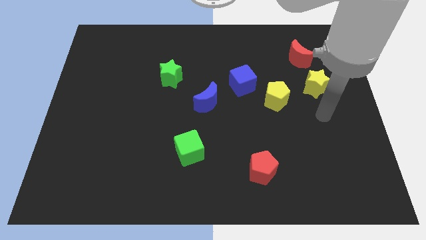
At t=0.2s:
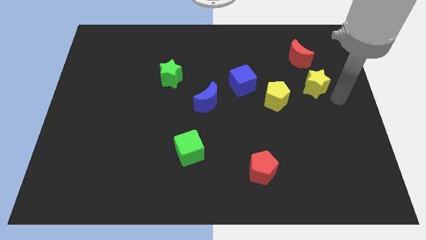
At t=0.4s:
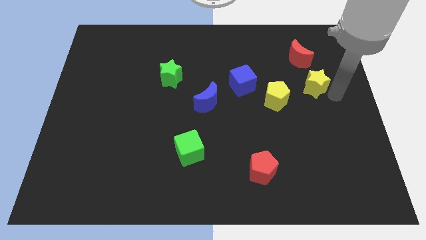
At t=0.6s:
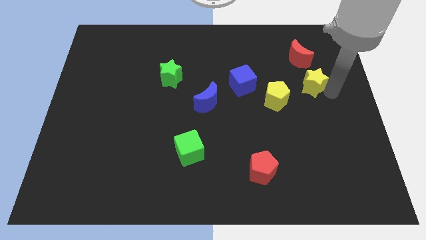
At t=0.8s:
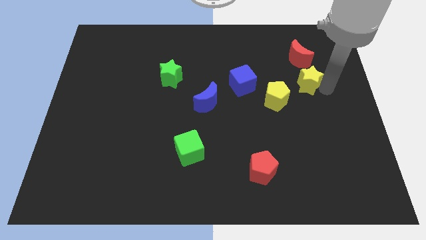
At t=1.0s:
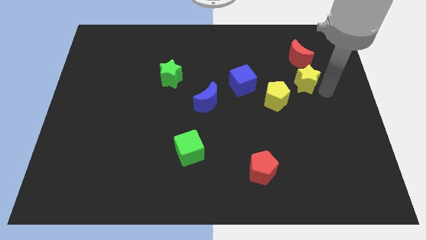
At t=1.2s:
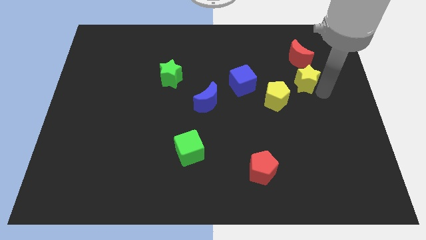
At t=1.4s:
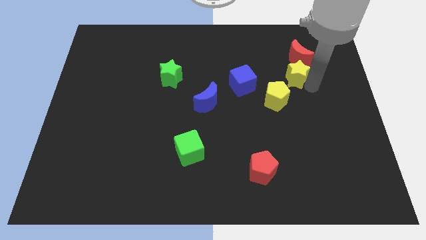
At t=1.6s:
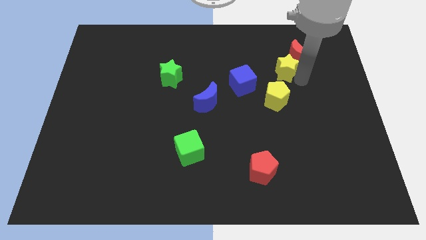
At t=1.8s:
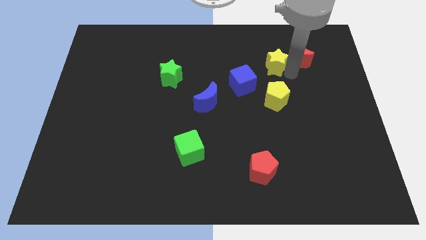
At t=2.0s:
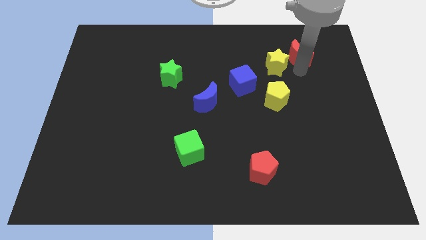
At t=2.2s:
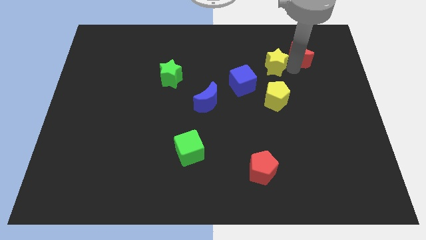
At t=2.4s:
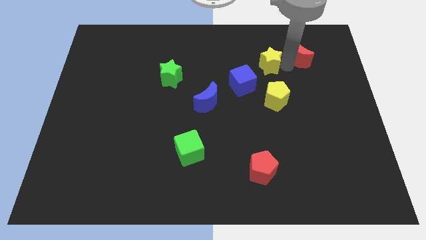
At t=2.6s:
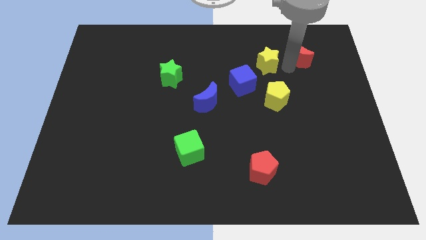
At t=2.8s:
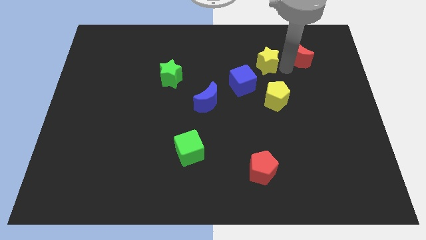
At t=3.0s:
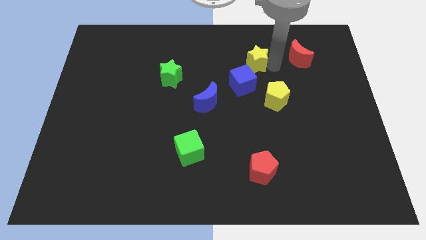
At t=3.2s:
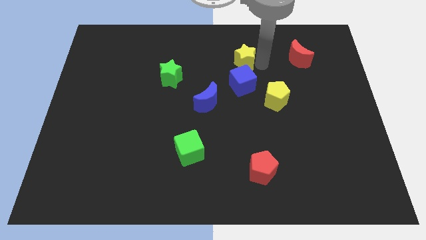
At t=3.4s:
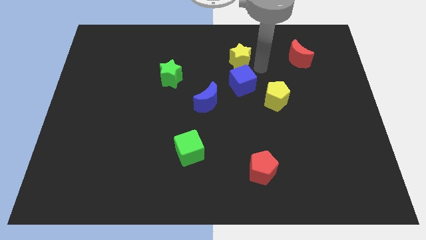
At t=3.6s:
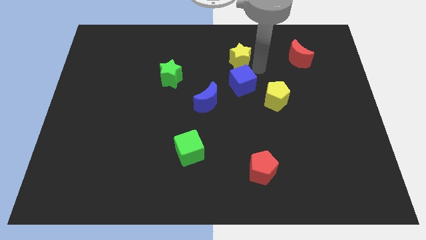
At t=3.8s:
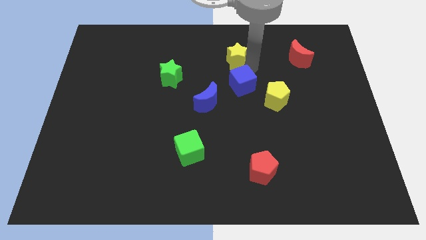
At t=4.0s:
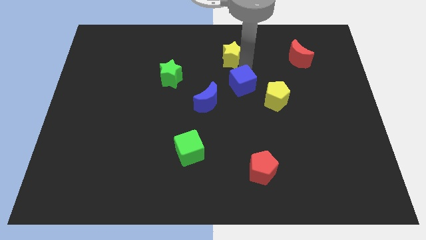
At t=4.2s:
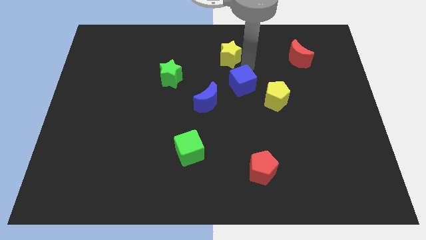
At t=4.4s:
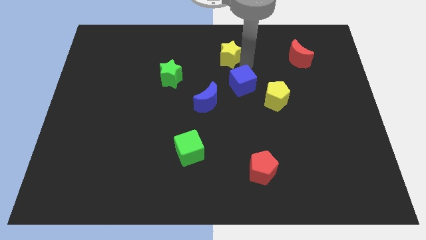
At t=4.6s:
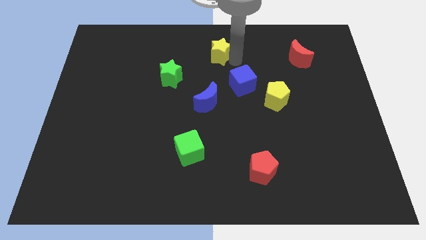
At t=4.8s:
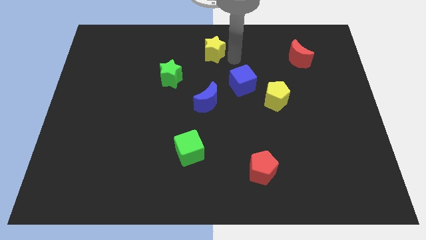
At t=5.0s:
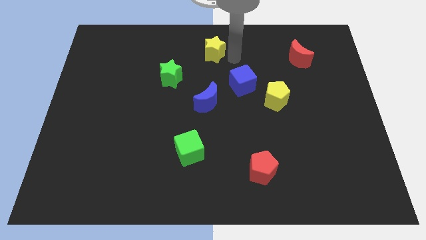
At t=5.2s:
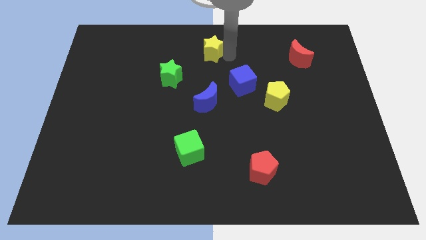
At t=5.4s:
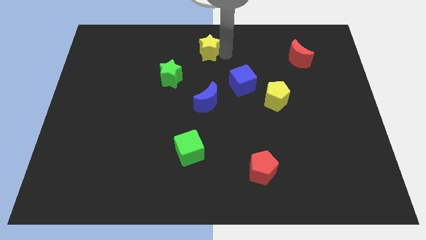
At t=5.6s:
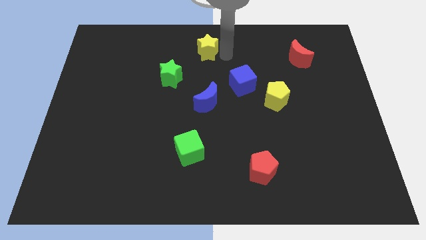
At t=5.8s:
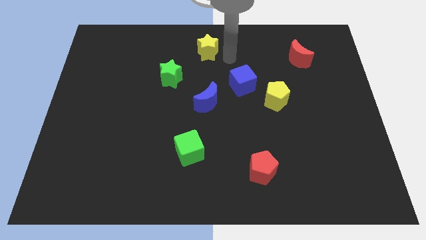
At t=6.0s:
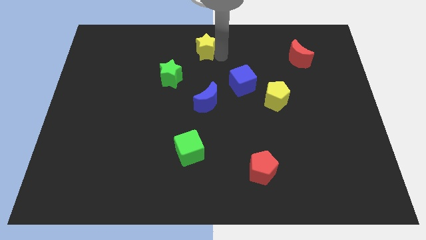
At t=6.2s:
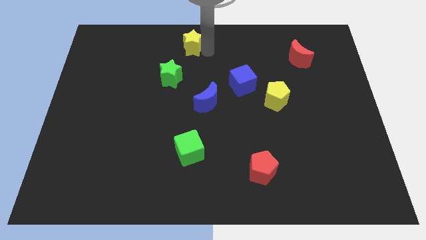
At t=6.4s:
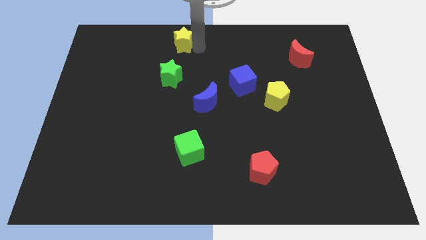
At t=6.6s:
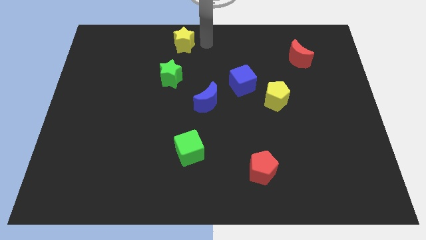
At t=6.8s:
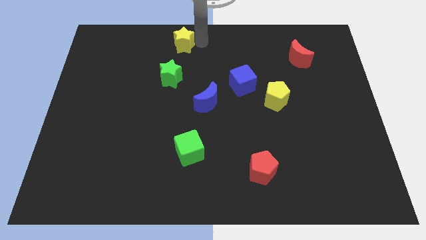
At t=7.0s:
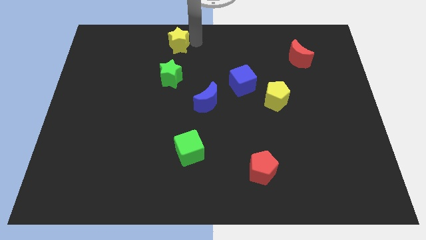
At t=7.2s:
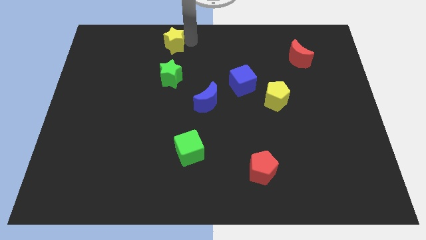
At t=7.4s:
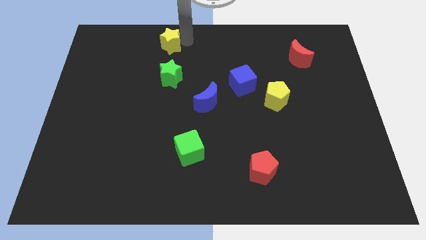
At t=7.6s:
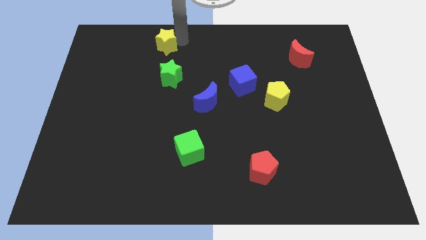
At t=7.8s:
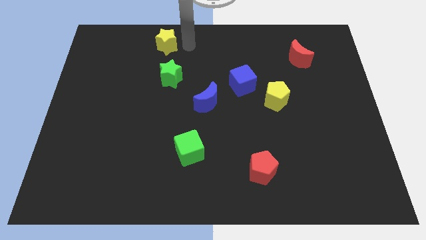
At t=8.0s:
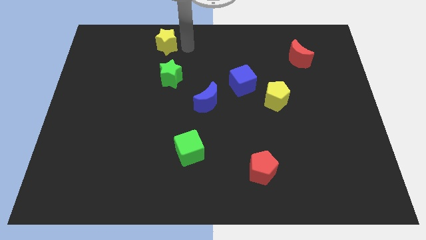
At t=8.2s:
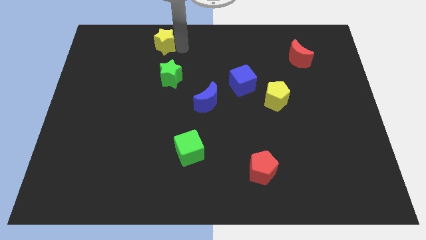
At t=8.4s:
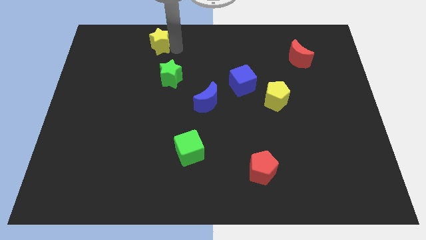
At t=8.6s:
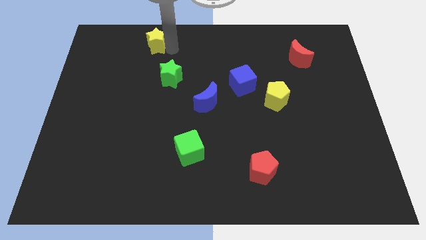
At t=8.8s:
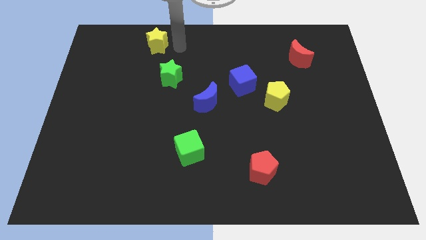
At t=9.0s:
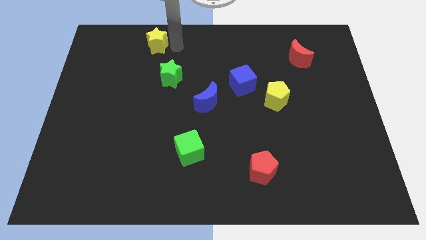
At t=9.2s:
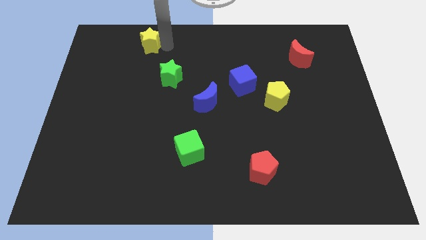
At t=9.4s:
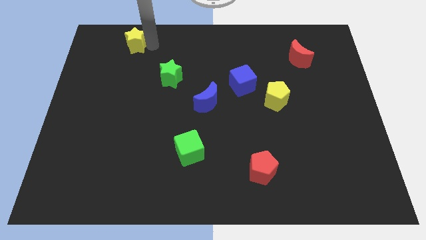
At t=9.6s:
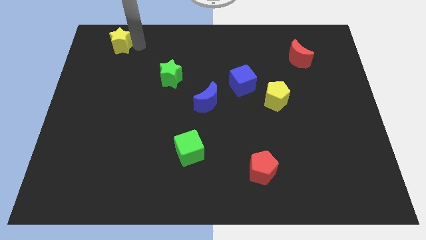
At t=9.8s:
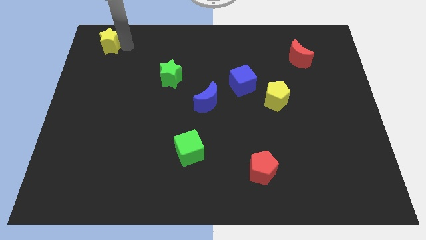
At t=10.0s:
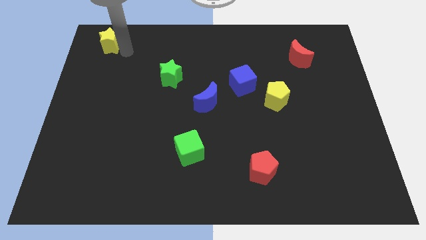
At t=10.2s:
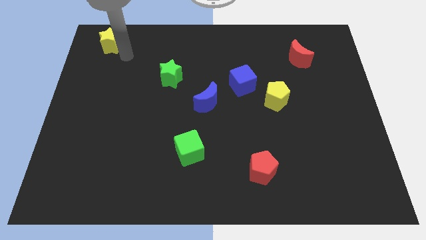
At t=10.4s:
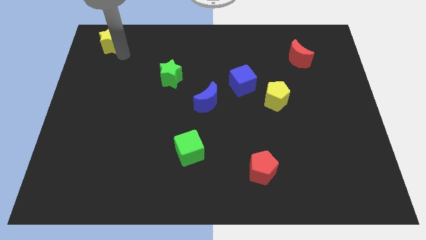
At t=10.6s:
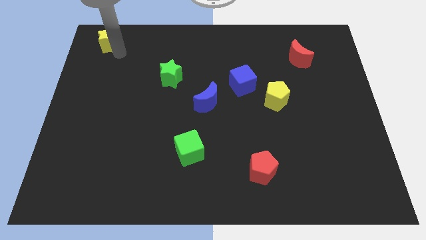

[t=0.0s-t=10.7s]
push the yellow star to the top left of the board

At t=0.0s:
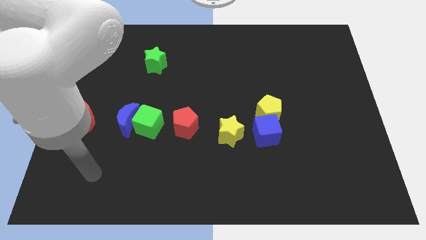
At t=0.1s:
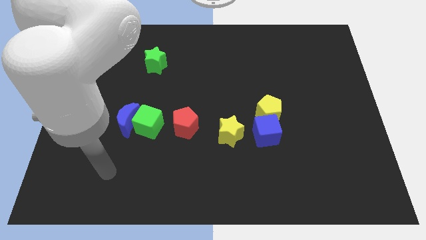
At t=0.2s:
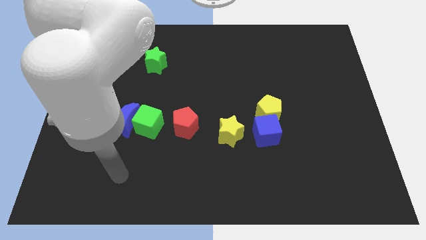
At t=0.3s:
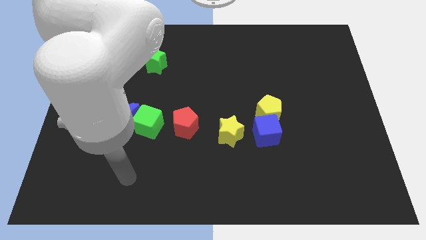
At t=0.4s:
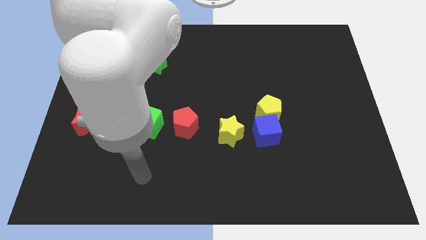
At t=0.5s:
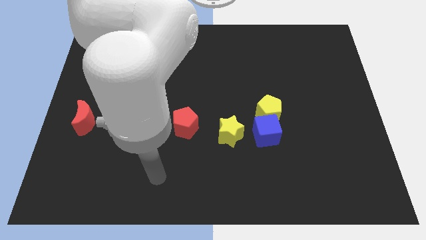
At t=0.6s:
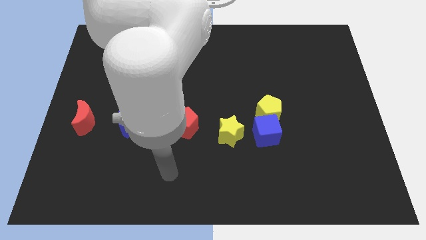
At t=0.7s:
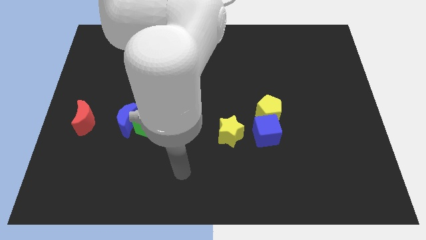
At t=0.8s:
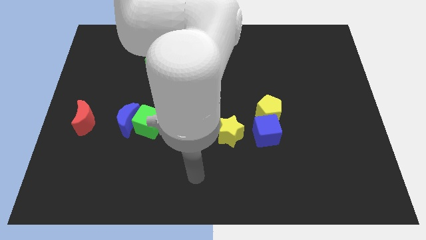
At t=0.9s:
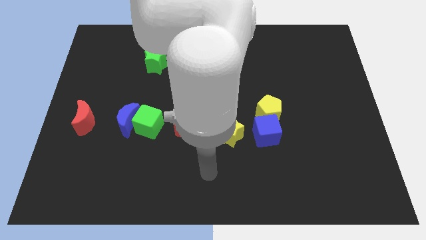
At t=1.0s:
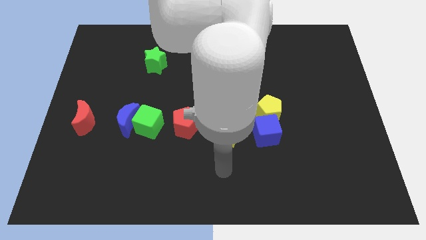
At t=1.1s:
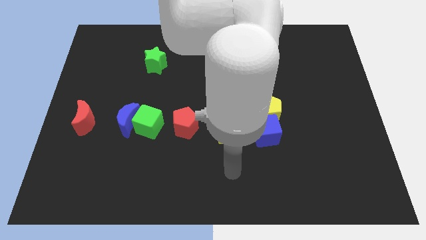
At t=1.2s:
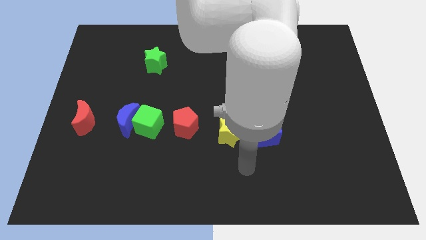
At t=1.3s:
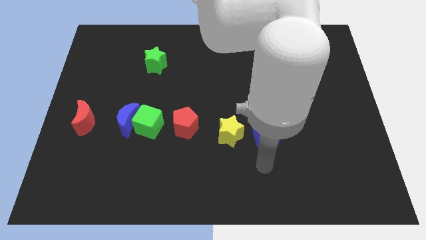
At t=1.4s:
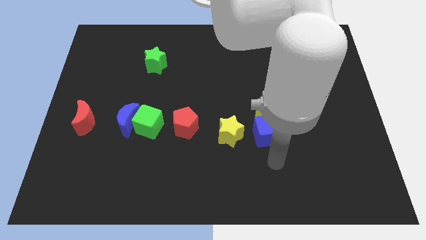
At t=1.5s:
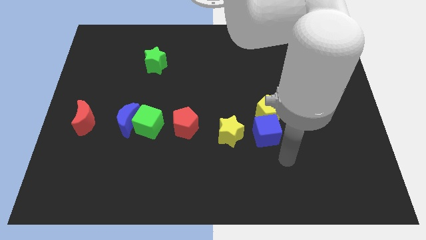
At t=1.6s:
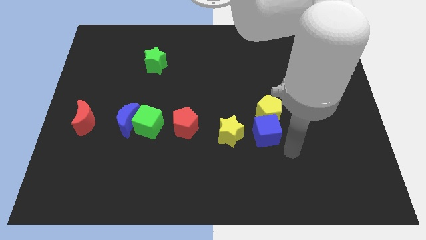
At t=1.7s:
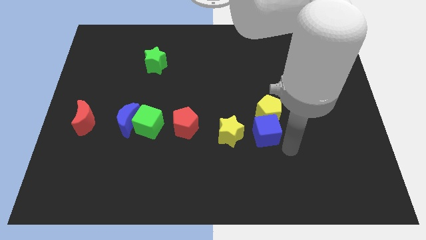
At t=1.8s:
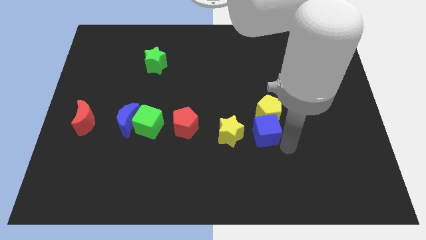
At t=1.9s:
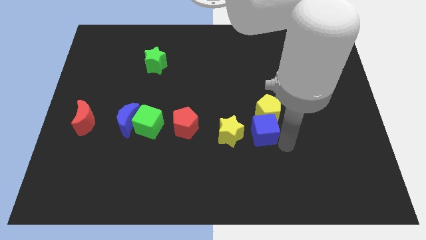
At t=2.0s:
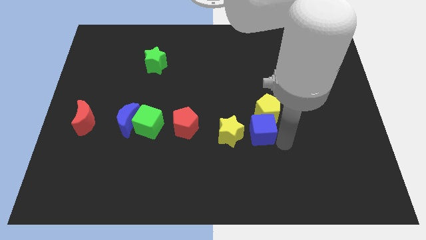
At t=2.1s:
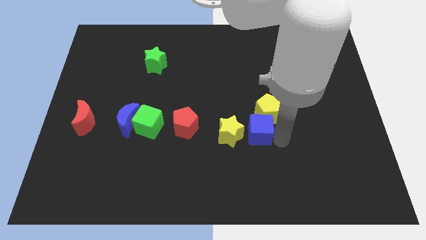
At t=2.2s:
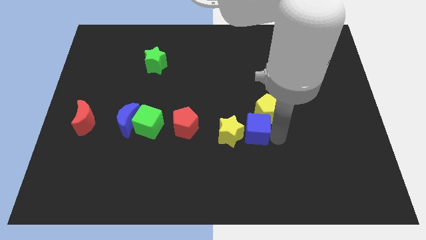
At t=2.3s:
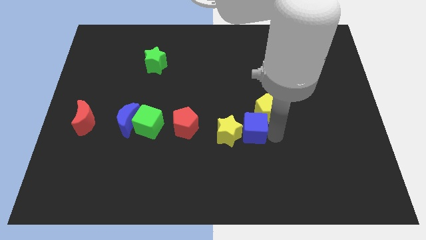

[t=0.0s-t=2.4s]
move the blue cube to the middle
